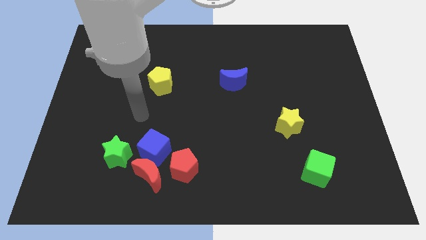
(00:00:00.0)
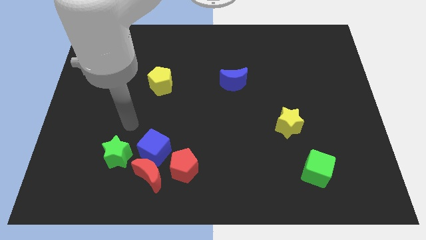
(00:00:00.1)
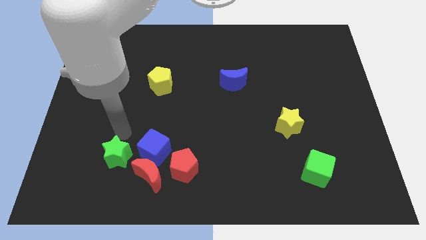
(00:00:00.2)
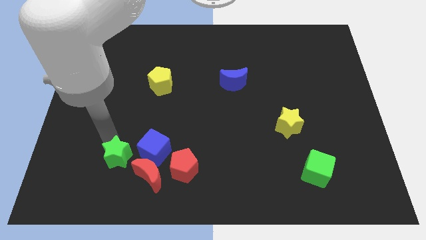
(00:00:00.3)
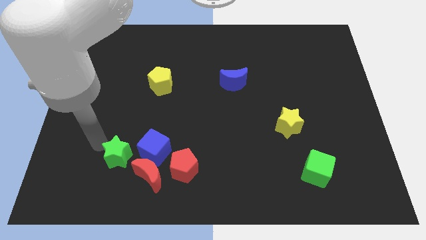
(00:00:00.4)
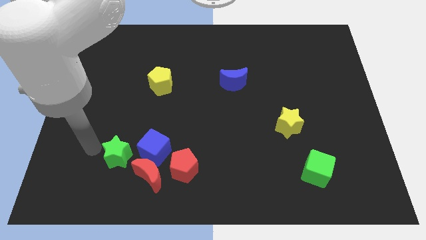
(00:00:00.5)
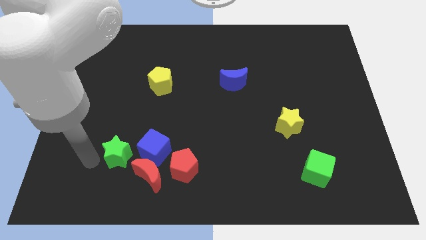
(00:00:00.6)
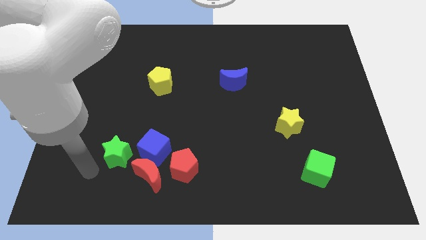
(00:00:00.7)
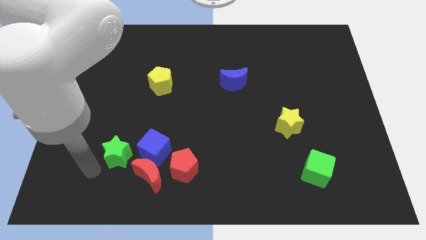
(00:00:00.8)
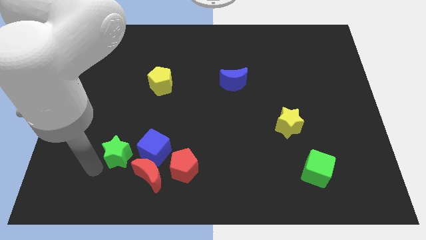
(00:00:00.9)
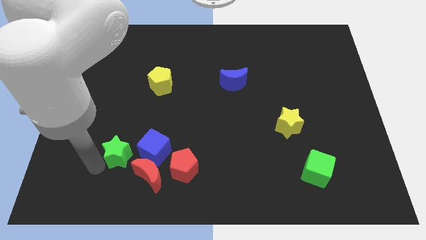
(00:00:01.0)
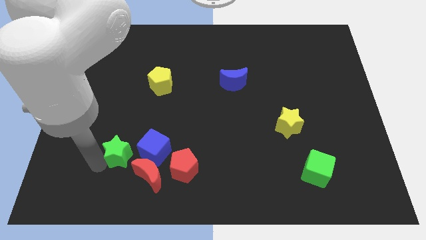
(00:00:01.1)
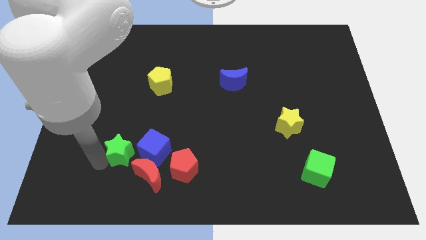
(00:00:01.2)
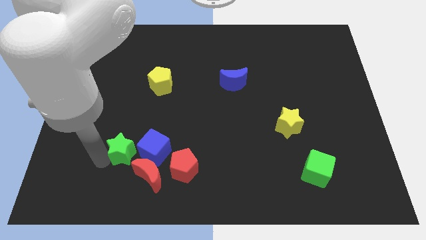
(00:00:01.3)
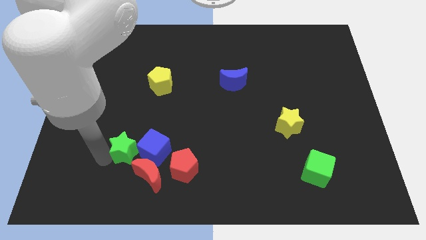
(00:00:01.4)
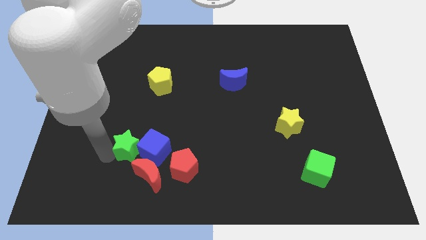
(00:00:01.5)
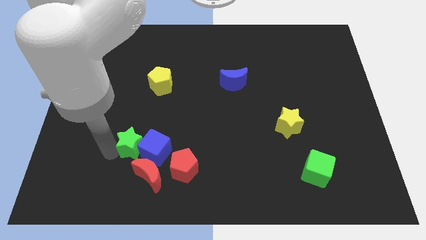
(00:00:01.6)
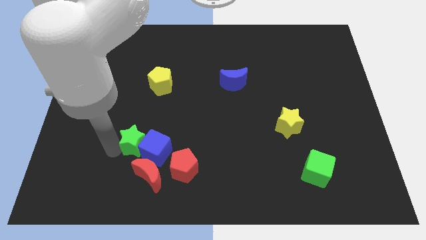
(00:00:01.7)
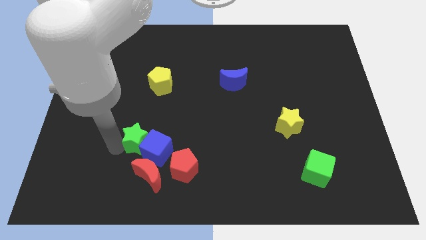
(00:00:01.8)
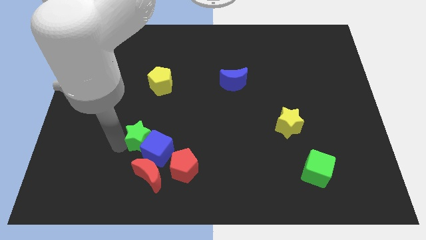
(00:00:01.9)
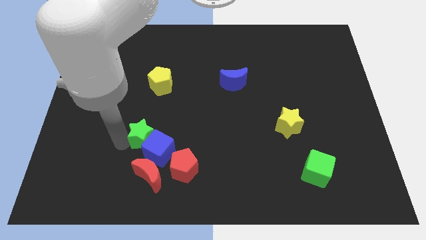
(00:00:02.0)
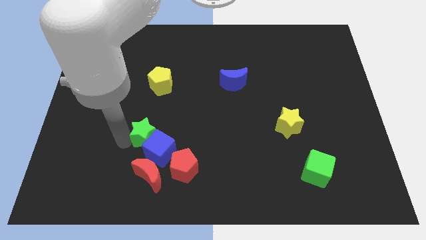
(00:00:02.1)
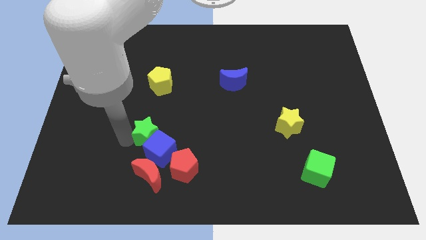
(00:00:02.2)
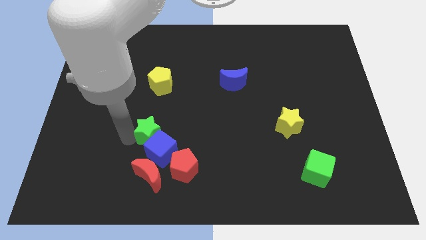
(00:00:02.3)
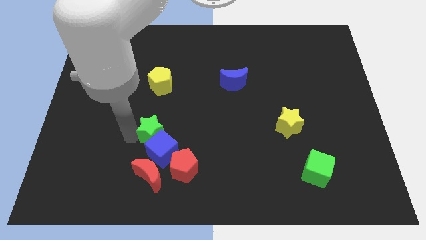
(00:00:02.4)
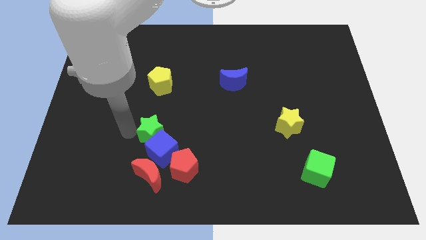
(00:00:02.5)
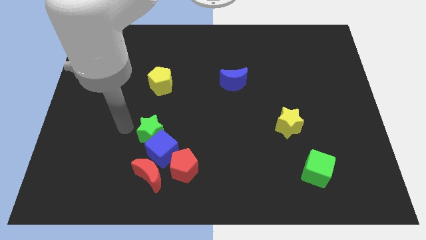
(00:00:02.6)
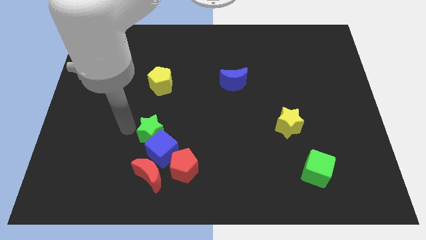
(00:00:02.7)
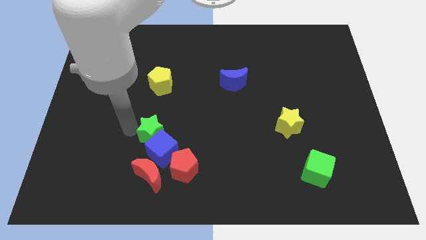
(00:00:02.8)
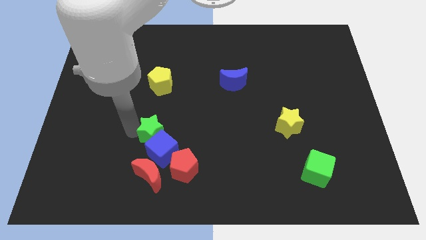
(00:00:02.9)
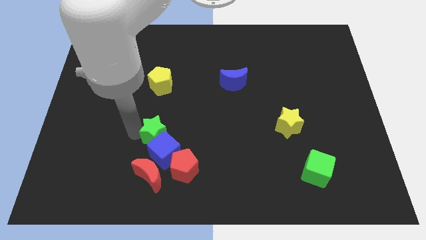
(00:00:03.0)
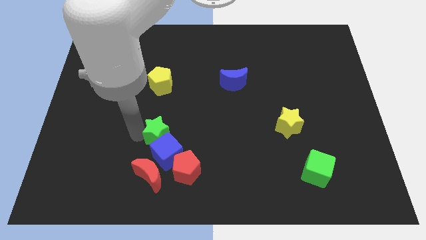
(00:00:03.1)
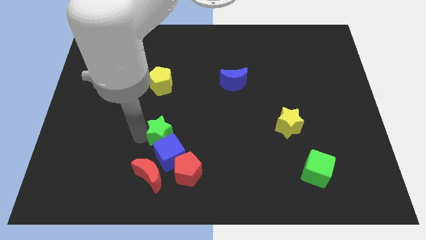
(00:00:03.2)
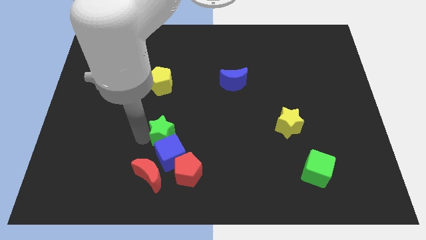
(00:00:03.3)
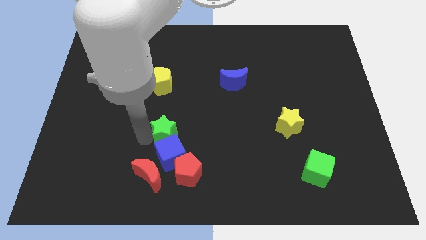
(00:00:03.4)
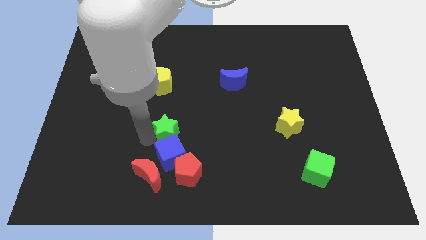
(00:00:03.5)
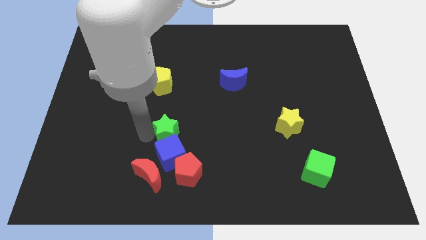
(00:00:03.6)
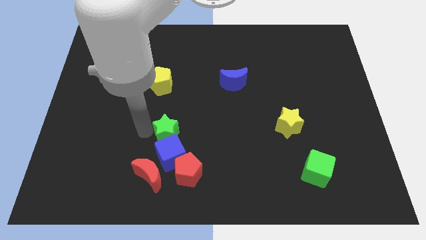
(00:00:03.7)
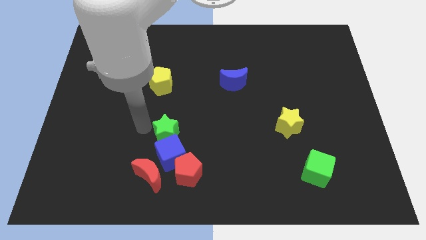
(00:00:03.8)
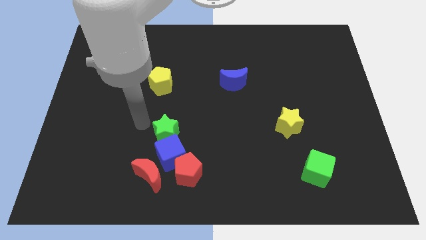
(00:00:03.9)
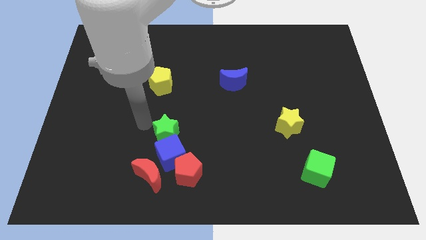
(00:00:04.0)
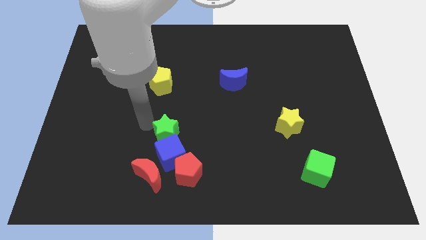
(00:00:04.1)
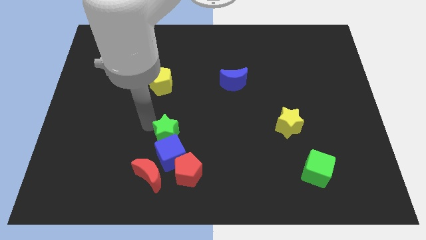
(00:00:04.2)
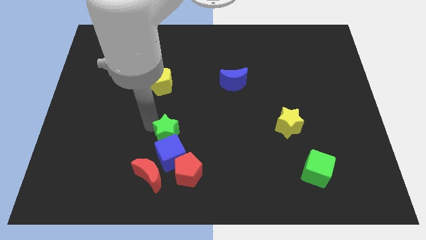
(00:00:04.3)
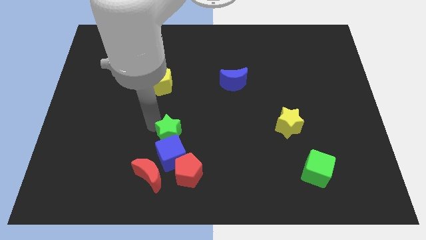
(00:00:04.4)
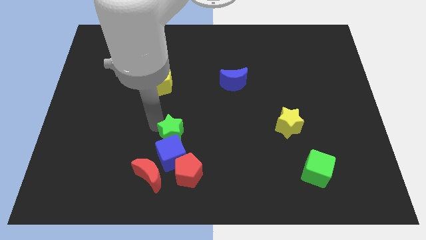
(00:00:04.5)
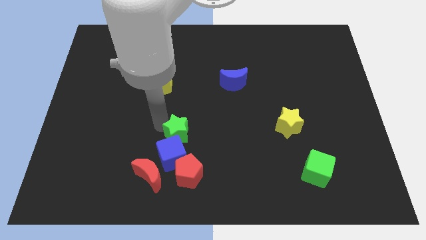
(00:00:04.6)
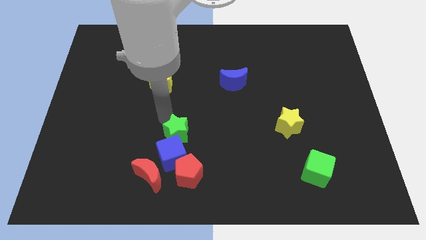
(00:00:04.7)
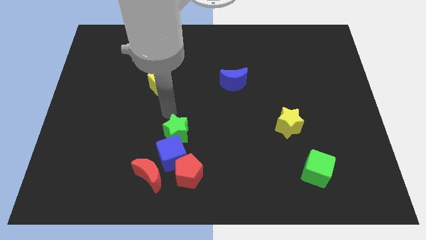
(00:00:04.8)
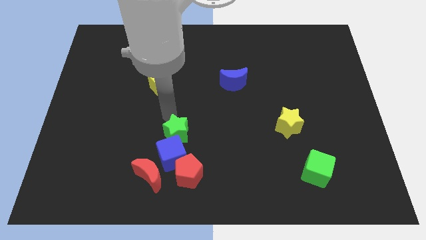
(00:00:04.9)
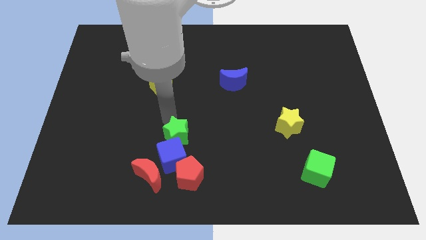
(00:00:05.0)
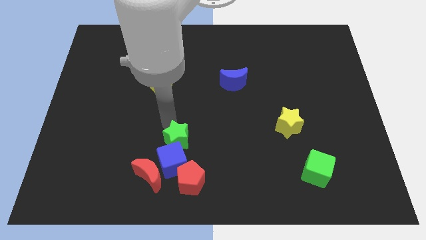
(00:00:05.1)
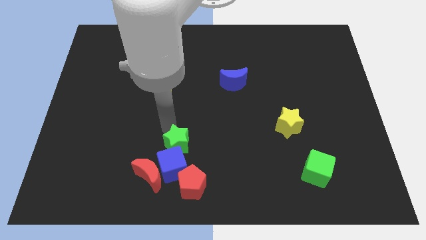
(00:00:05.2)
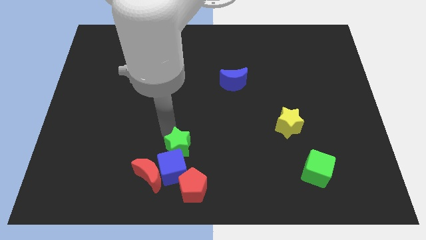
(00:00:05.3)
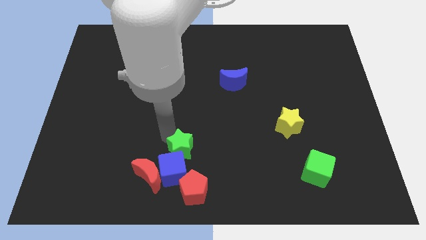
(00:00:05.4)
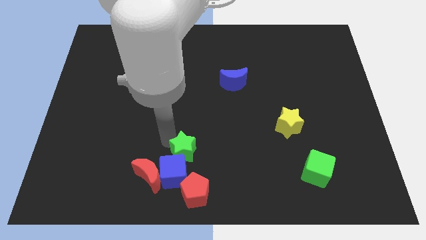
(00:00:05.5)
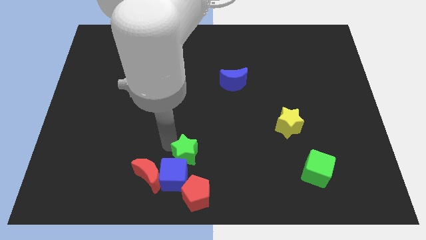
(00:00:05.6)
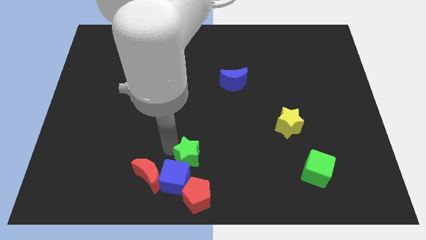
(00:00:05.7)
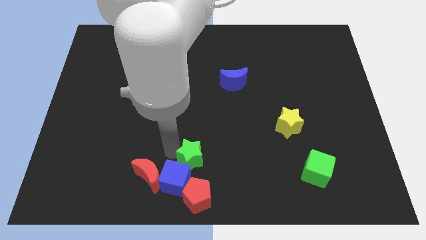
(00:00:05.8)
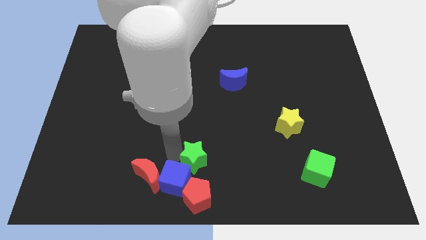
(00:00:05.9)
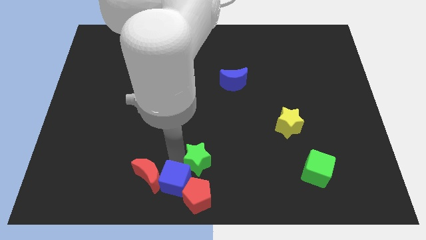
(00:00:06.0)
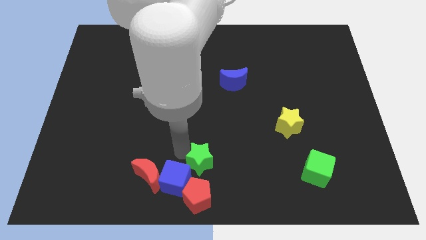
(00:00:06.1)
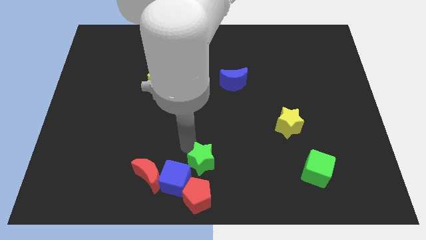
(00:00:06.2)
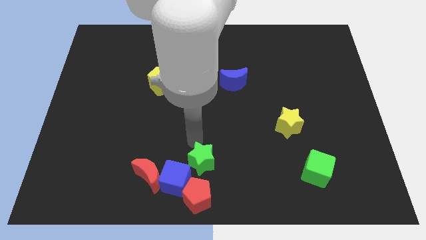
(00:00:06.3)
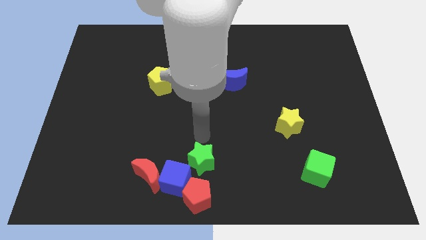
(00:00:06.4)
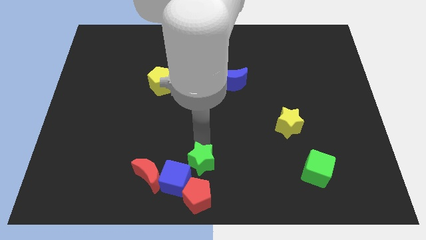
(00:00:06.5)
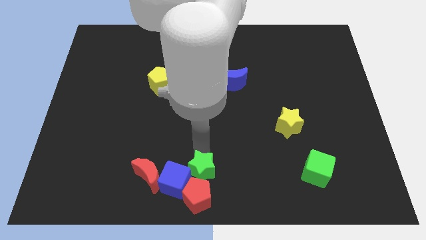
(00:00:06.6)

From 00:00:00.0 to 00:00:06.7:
put the green star to the red pentagon

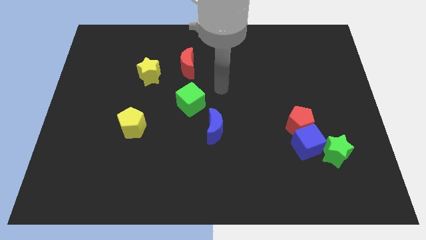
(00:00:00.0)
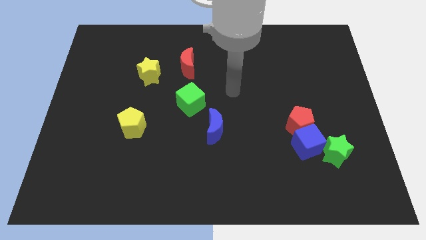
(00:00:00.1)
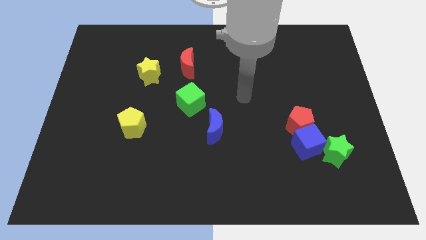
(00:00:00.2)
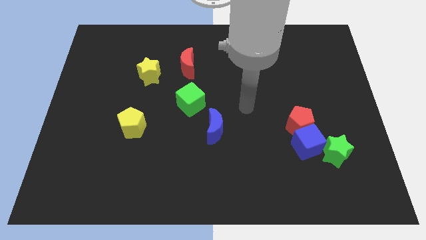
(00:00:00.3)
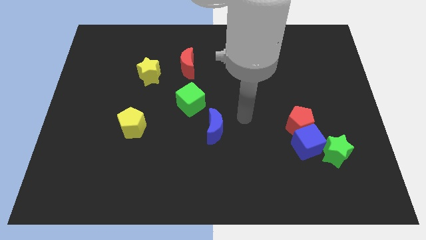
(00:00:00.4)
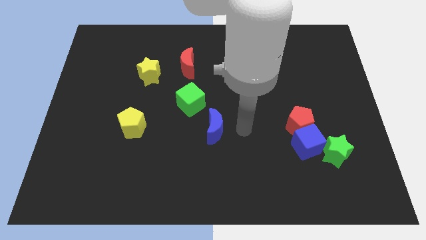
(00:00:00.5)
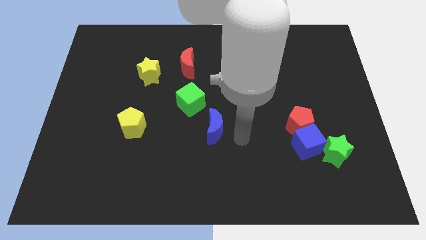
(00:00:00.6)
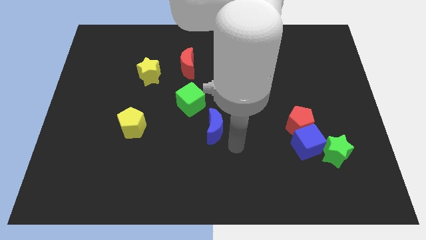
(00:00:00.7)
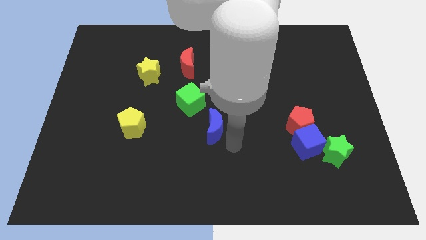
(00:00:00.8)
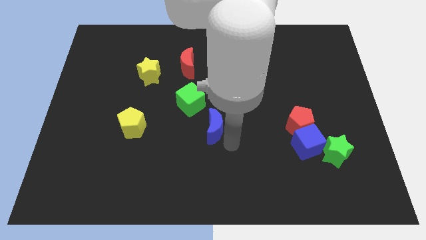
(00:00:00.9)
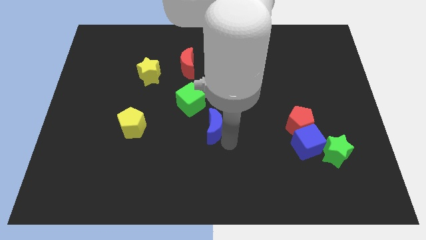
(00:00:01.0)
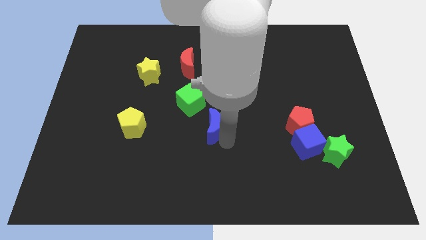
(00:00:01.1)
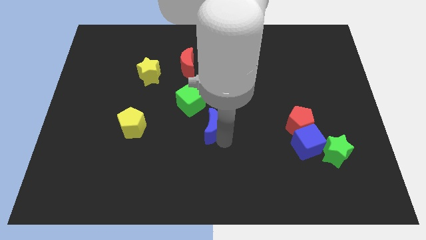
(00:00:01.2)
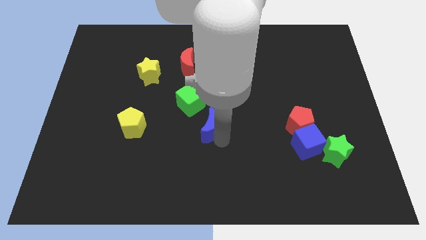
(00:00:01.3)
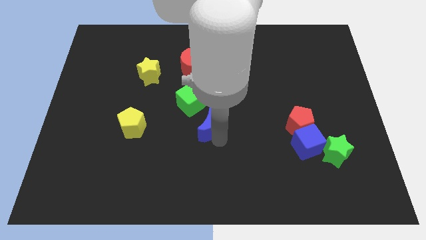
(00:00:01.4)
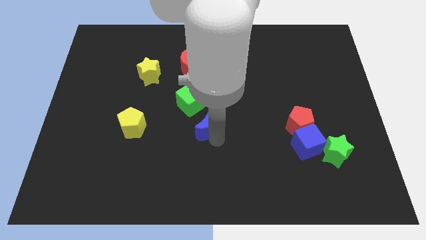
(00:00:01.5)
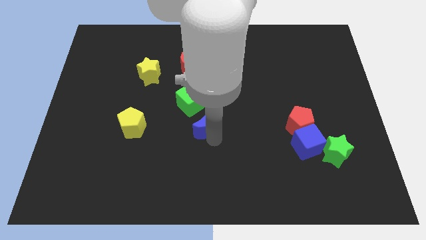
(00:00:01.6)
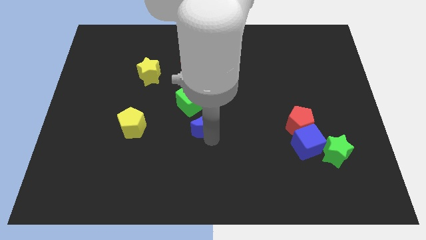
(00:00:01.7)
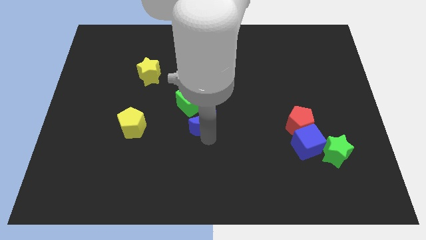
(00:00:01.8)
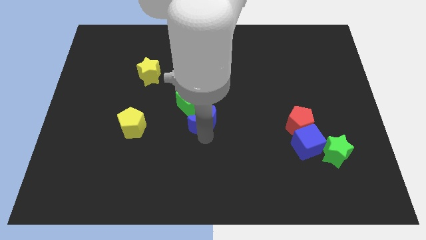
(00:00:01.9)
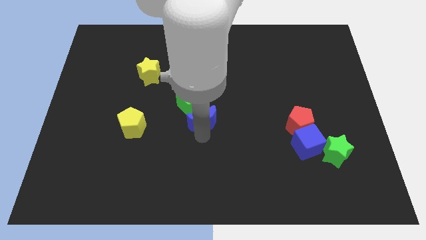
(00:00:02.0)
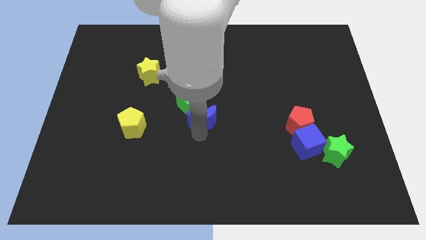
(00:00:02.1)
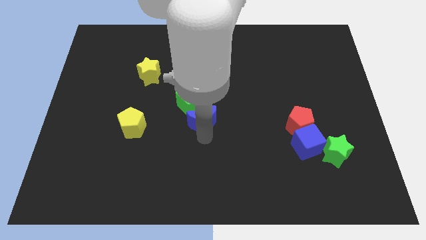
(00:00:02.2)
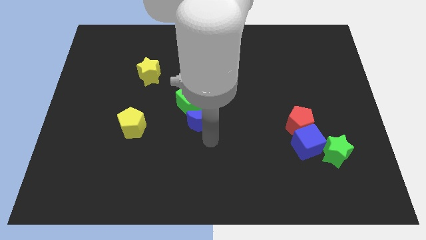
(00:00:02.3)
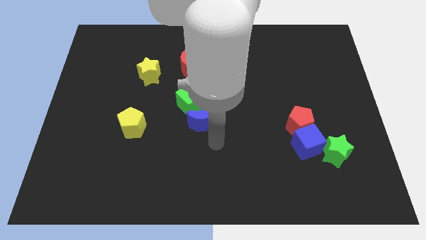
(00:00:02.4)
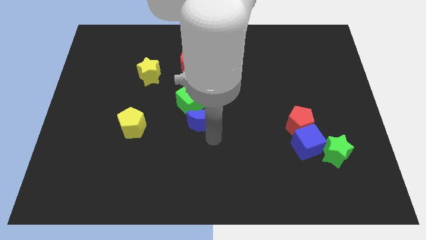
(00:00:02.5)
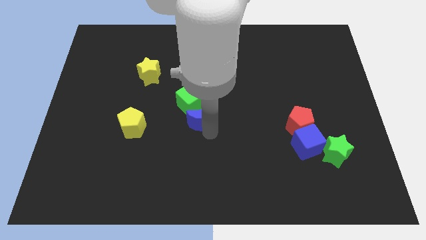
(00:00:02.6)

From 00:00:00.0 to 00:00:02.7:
put the blue moon to the green cube
